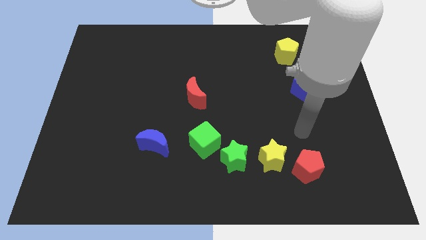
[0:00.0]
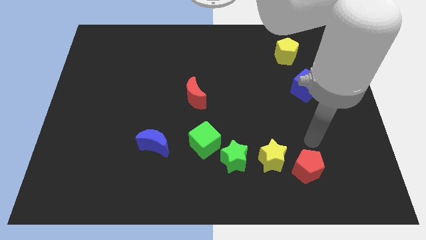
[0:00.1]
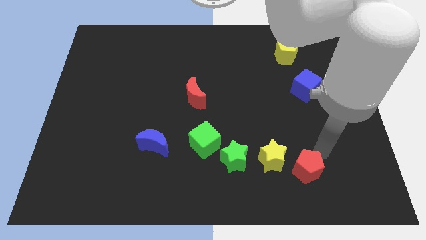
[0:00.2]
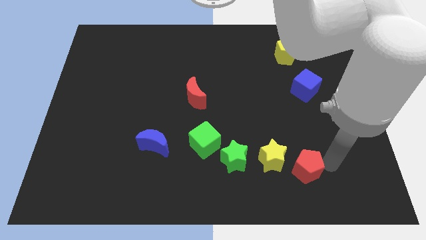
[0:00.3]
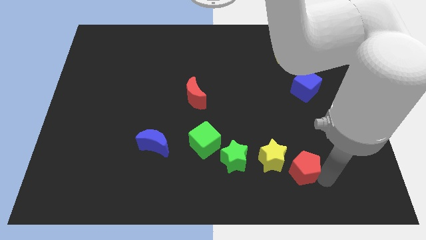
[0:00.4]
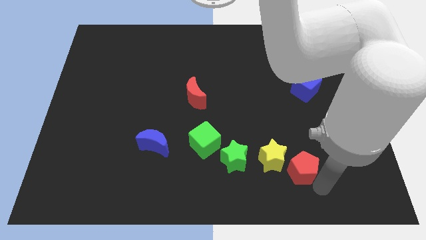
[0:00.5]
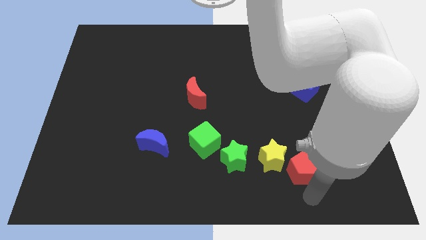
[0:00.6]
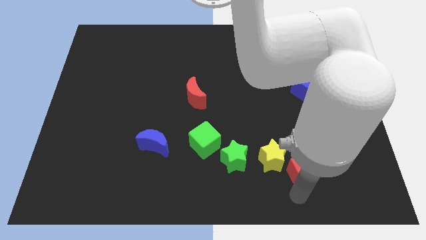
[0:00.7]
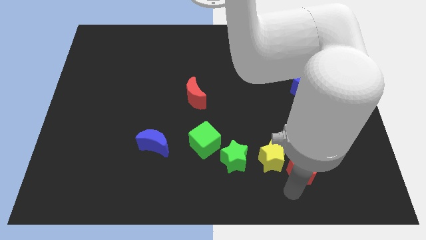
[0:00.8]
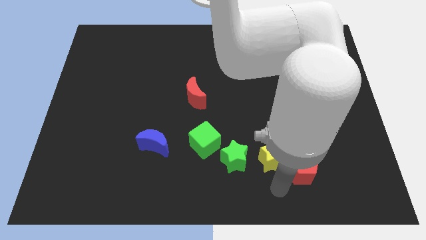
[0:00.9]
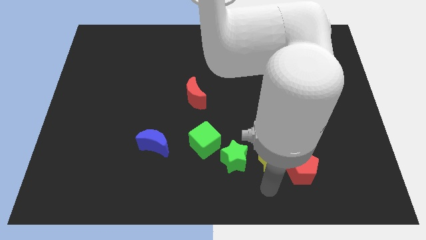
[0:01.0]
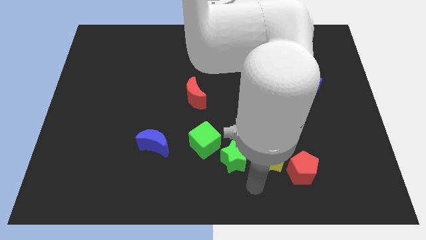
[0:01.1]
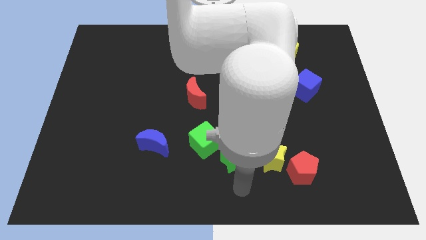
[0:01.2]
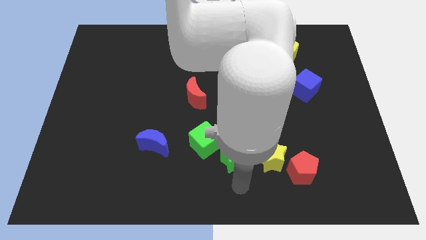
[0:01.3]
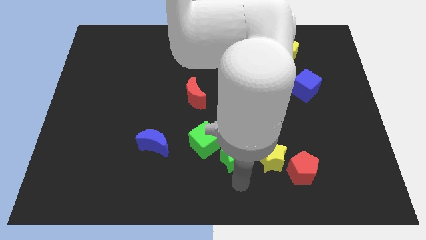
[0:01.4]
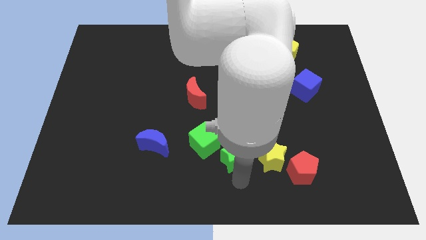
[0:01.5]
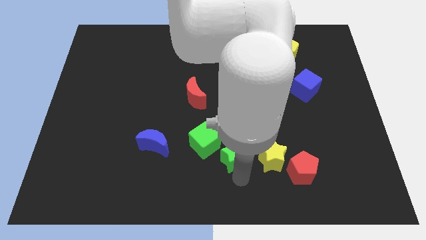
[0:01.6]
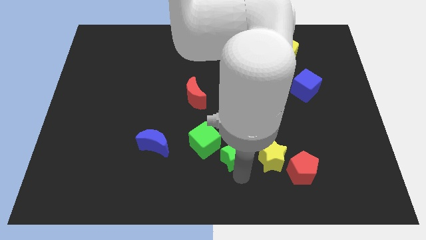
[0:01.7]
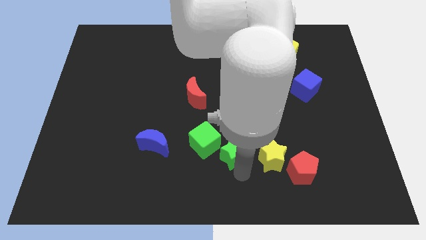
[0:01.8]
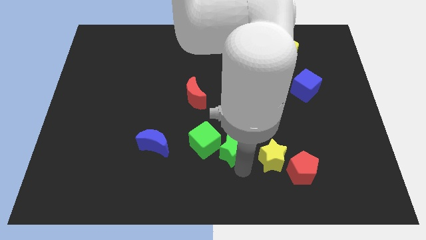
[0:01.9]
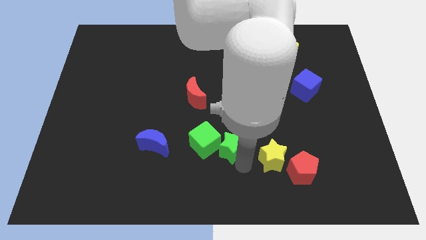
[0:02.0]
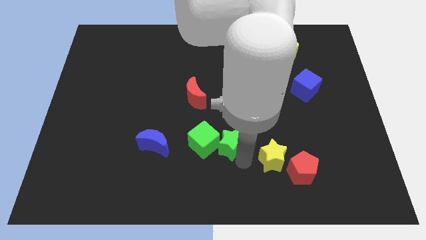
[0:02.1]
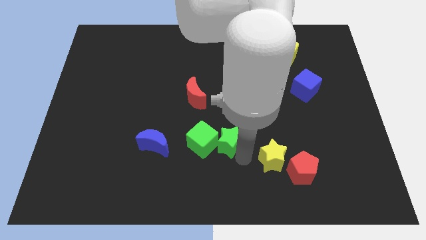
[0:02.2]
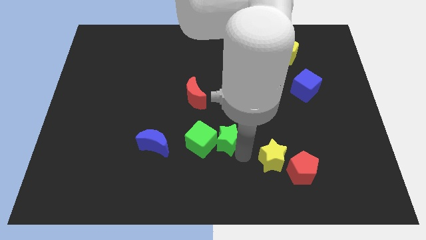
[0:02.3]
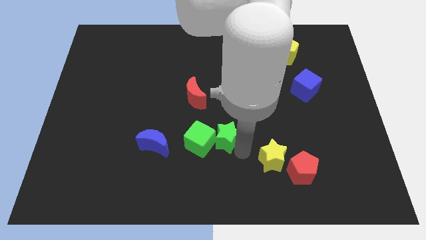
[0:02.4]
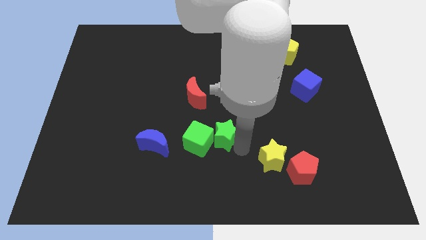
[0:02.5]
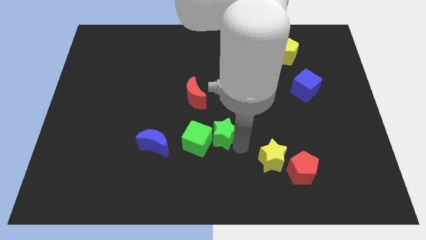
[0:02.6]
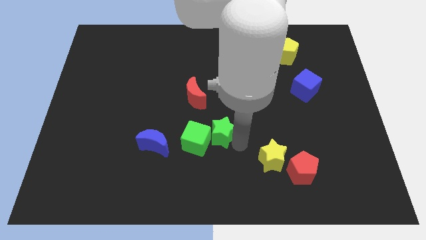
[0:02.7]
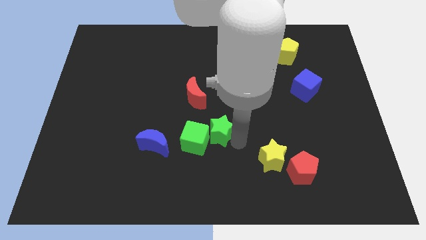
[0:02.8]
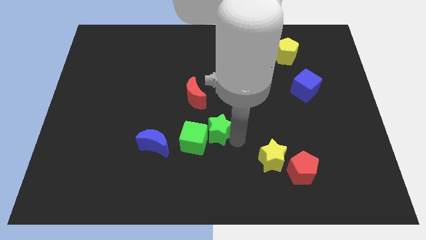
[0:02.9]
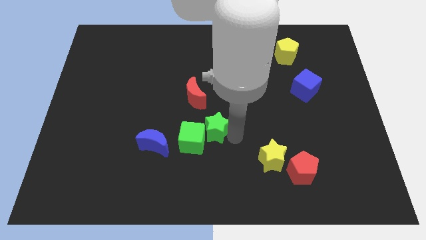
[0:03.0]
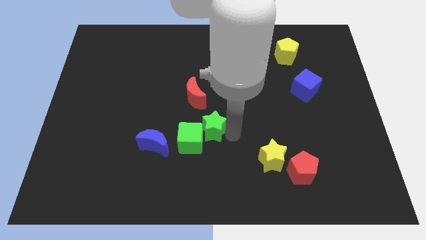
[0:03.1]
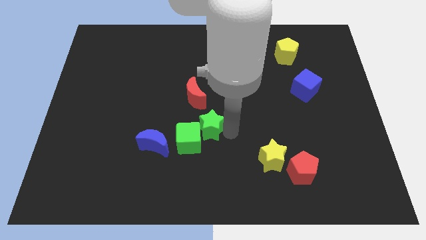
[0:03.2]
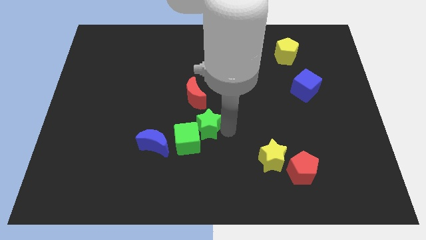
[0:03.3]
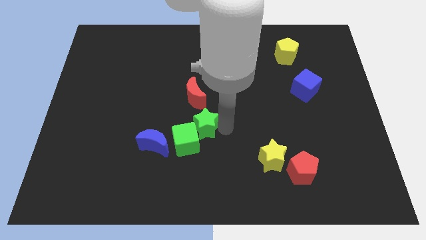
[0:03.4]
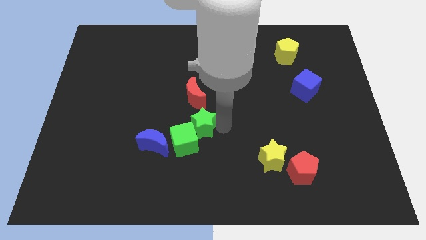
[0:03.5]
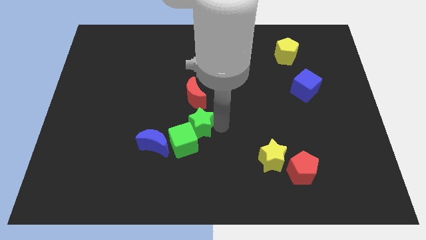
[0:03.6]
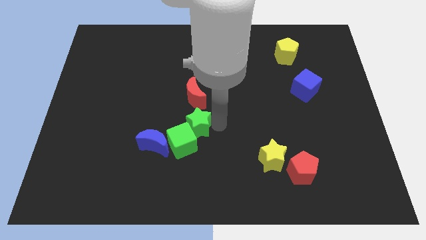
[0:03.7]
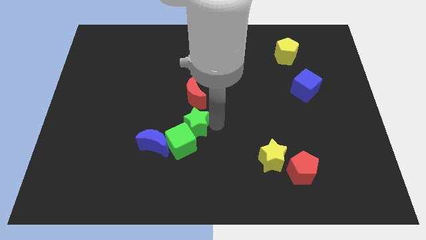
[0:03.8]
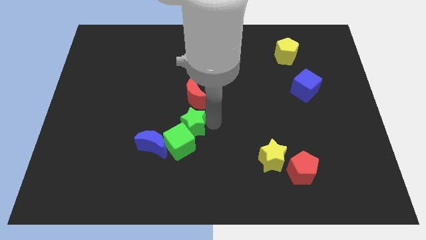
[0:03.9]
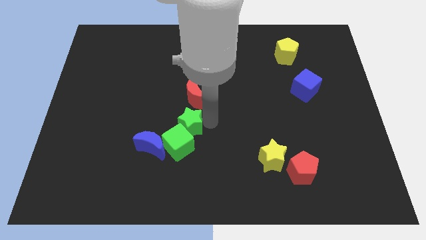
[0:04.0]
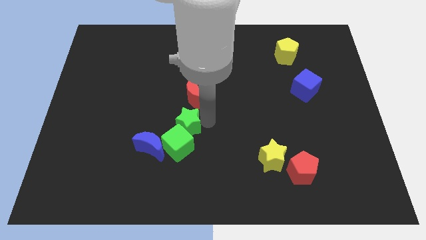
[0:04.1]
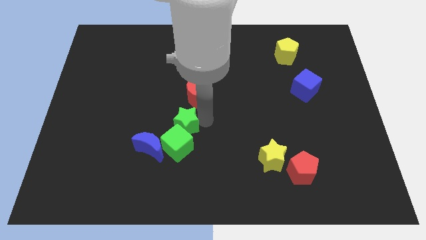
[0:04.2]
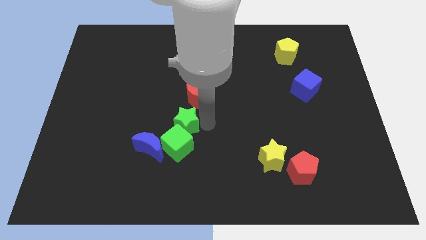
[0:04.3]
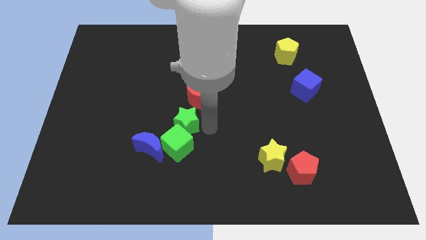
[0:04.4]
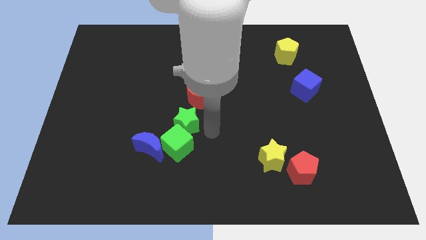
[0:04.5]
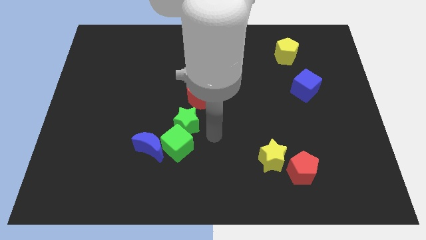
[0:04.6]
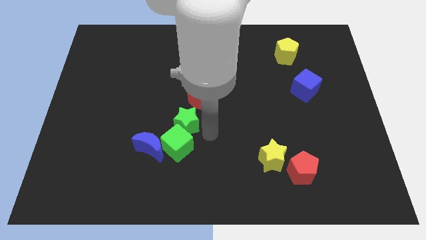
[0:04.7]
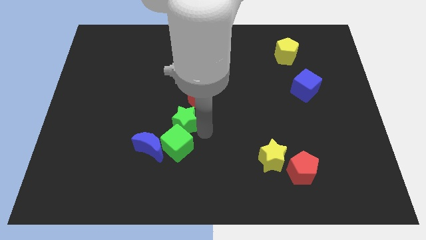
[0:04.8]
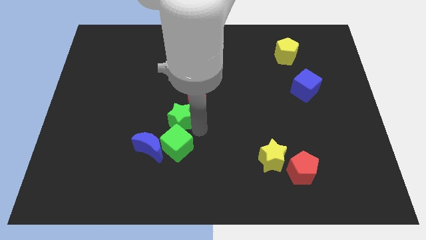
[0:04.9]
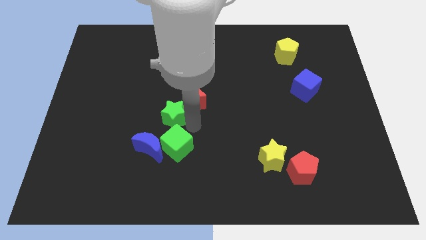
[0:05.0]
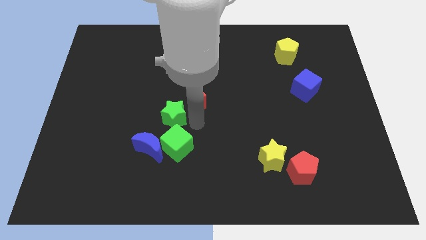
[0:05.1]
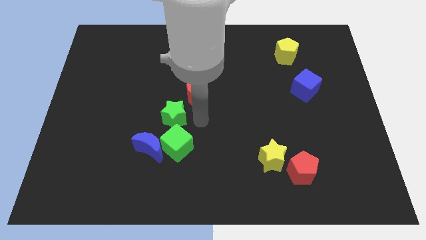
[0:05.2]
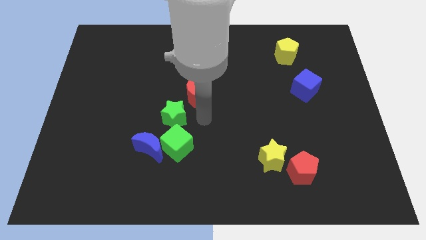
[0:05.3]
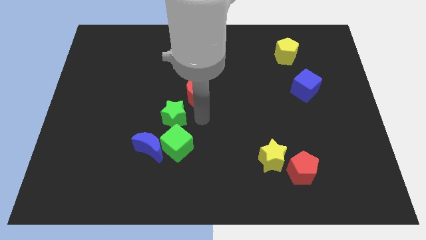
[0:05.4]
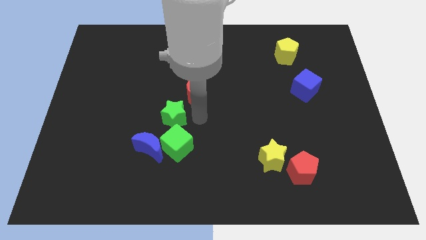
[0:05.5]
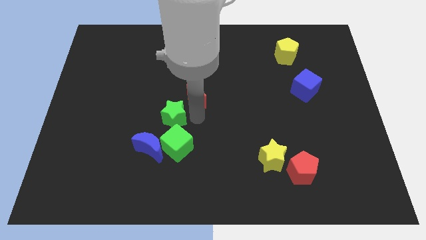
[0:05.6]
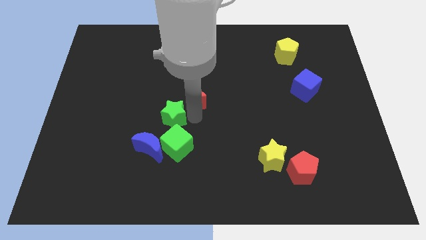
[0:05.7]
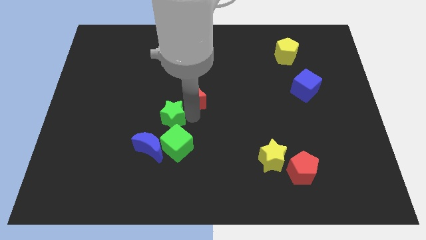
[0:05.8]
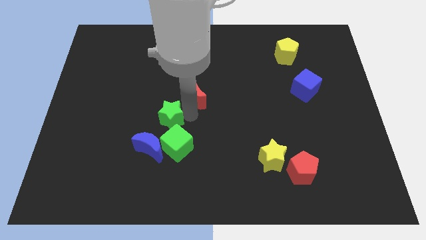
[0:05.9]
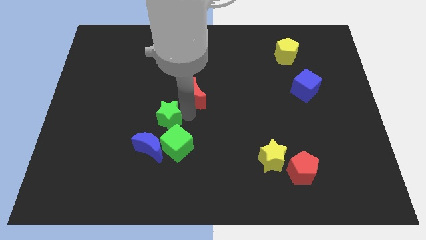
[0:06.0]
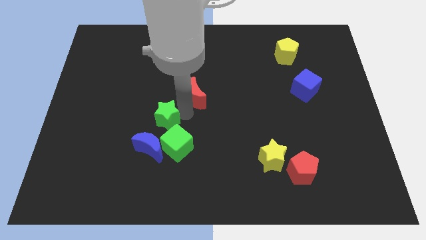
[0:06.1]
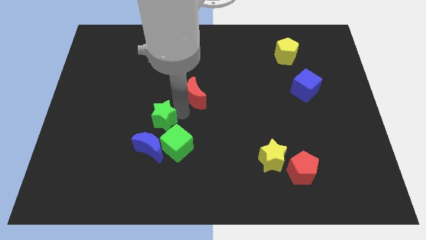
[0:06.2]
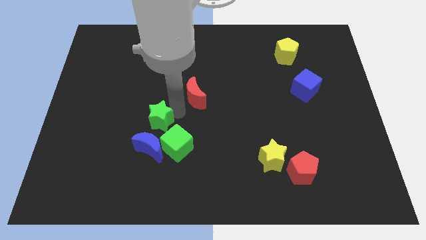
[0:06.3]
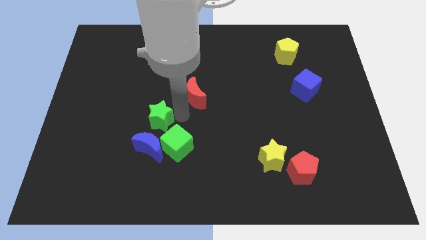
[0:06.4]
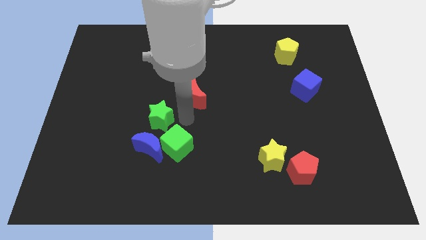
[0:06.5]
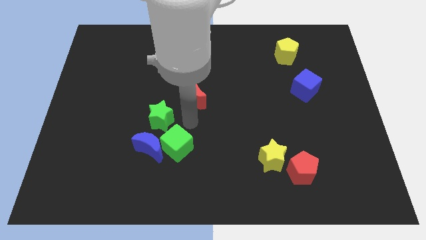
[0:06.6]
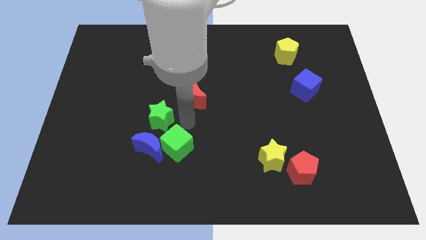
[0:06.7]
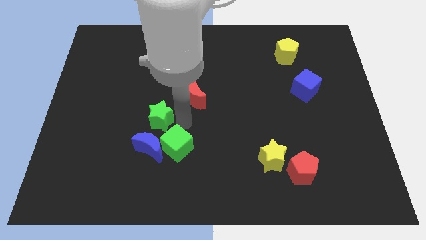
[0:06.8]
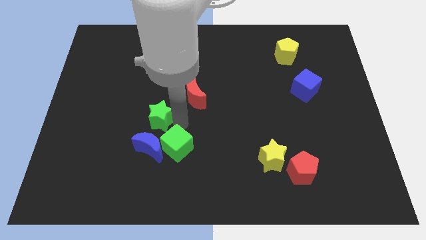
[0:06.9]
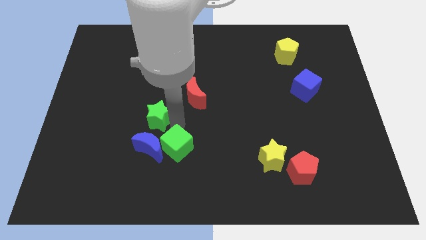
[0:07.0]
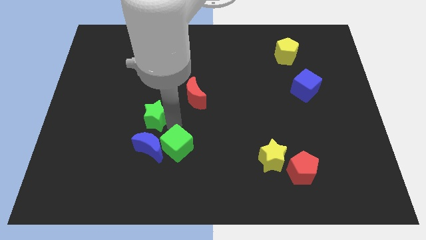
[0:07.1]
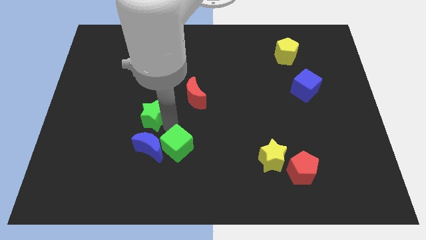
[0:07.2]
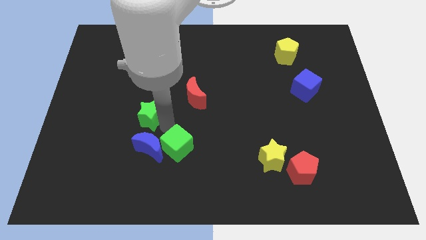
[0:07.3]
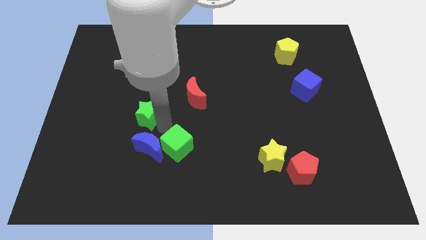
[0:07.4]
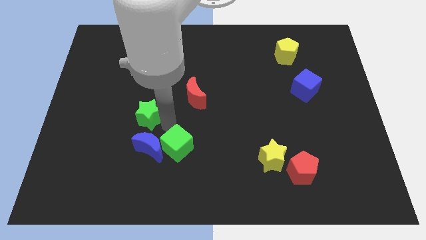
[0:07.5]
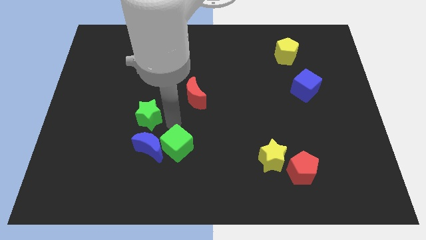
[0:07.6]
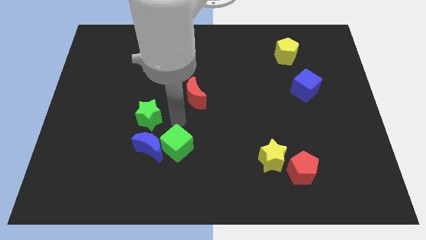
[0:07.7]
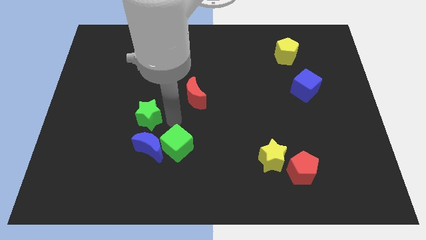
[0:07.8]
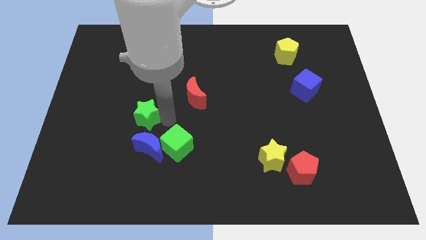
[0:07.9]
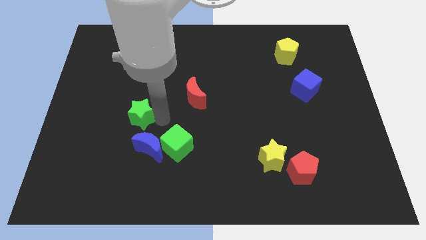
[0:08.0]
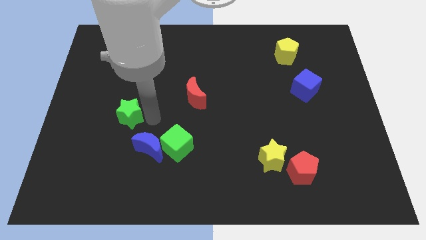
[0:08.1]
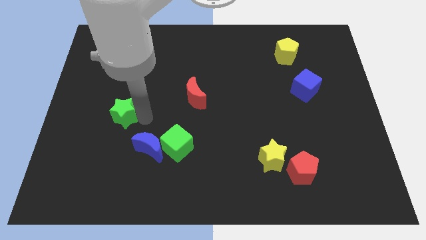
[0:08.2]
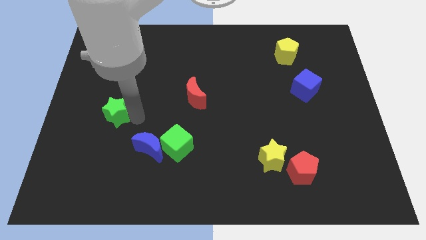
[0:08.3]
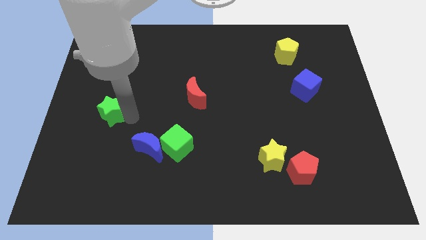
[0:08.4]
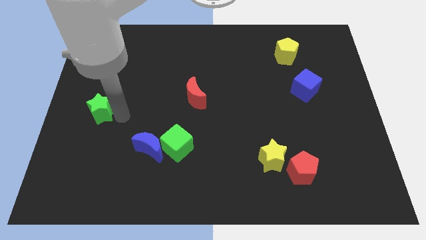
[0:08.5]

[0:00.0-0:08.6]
slide the green star to the center left
